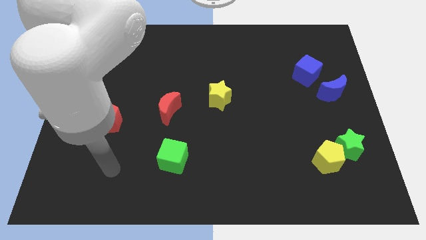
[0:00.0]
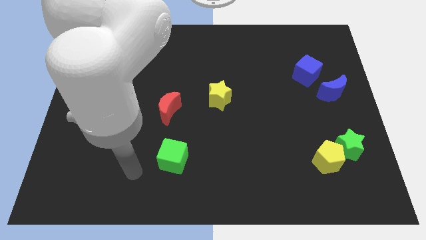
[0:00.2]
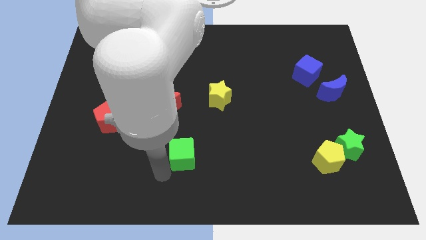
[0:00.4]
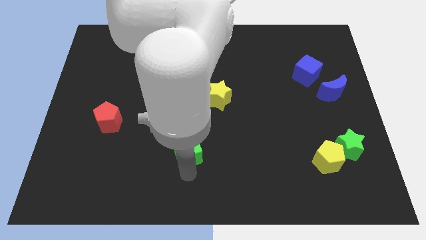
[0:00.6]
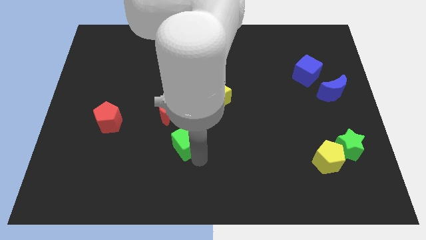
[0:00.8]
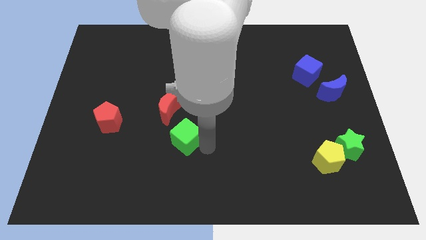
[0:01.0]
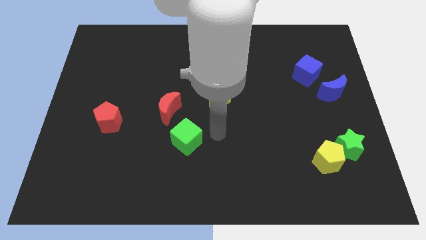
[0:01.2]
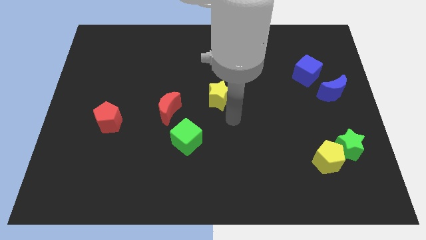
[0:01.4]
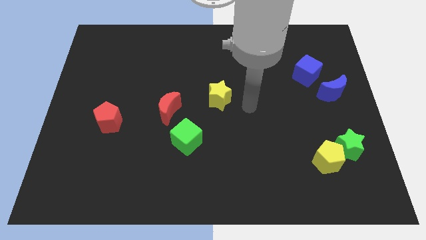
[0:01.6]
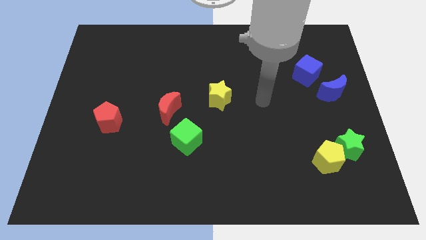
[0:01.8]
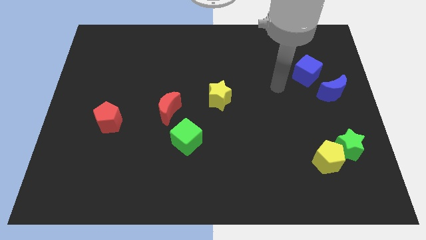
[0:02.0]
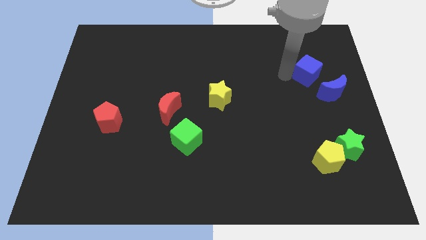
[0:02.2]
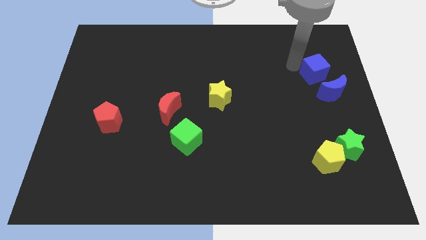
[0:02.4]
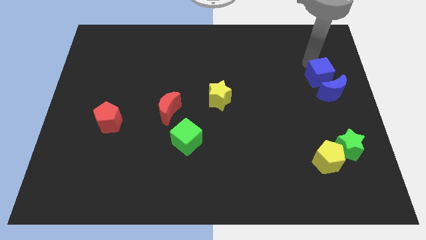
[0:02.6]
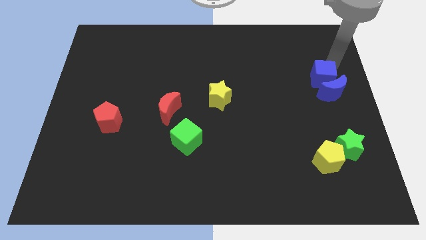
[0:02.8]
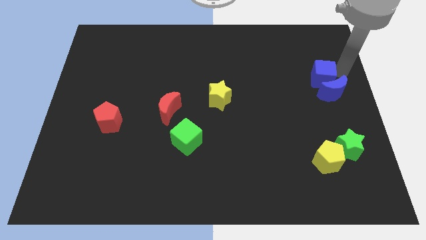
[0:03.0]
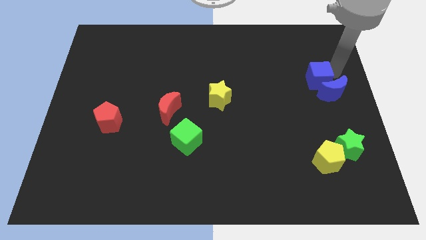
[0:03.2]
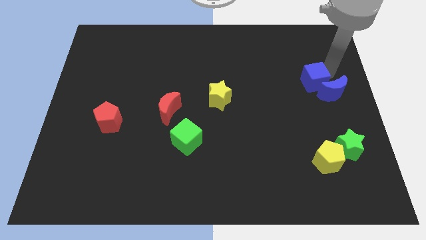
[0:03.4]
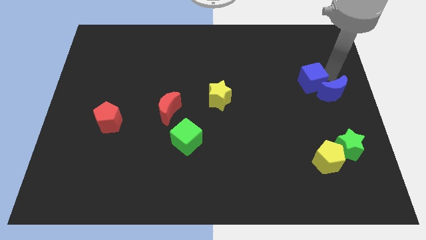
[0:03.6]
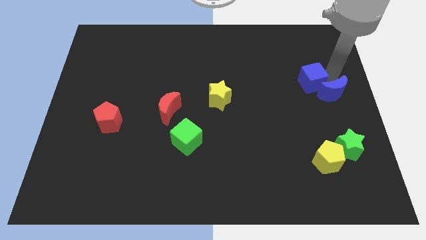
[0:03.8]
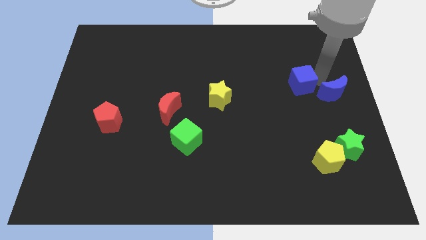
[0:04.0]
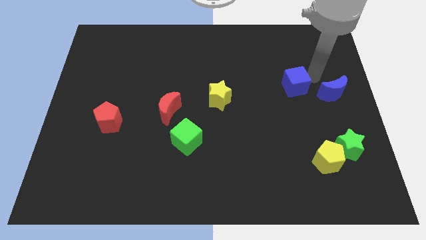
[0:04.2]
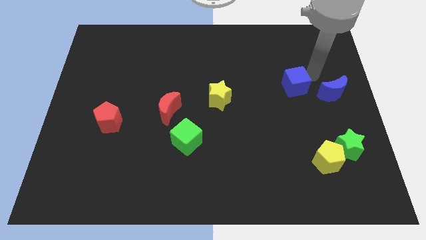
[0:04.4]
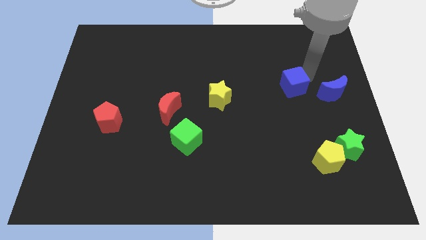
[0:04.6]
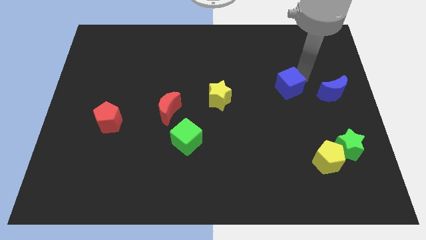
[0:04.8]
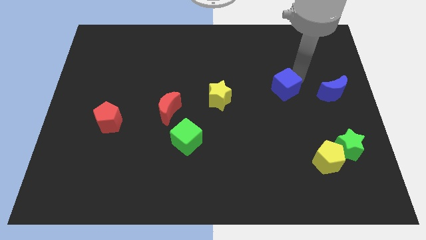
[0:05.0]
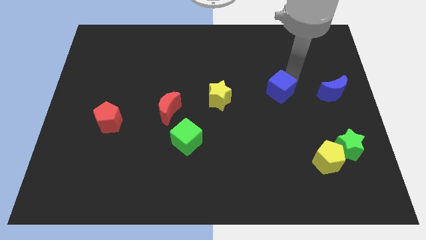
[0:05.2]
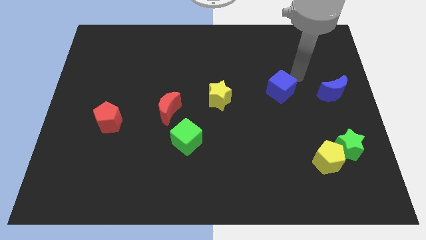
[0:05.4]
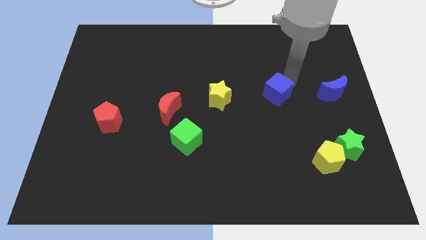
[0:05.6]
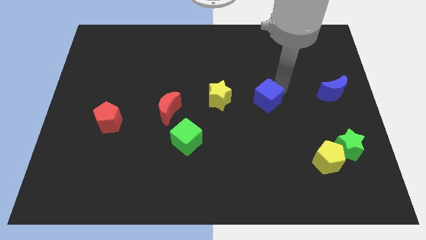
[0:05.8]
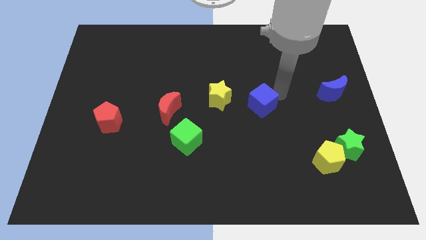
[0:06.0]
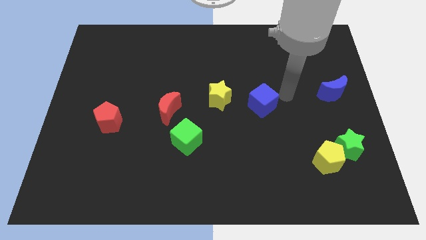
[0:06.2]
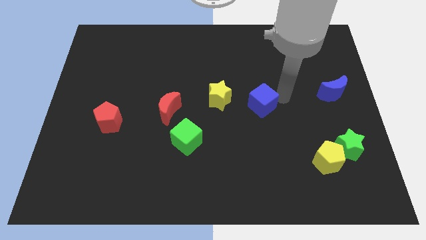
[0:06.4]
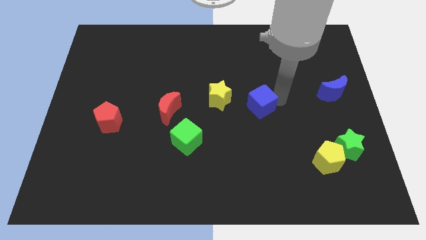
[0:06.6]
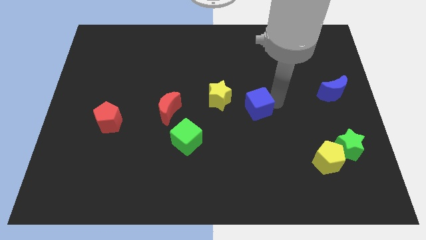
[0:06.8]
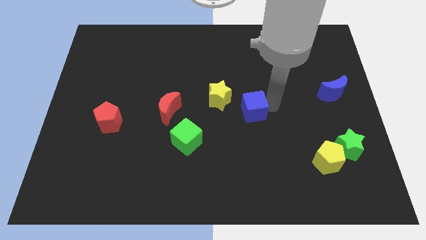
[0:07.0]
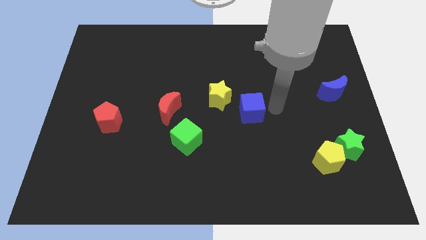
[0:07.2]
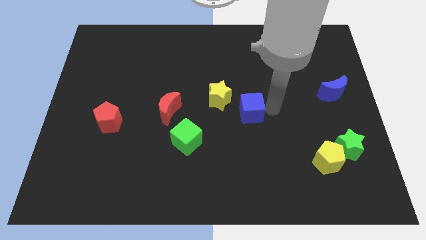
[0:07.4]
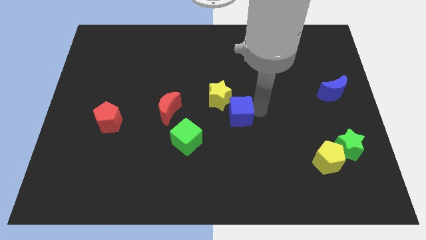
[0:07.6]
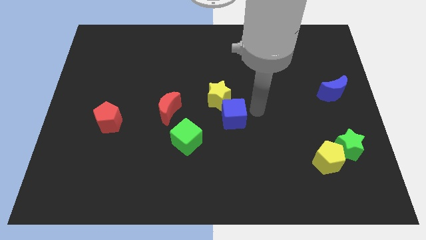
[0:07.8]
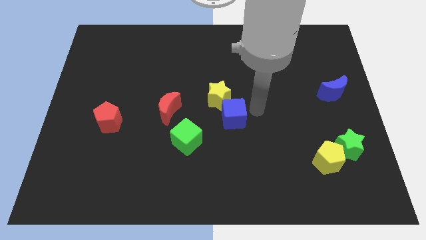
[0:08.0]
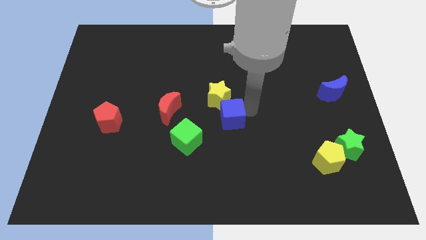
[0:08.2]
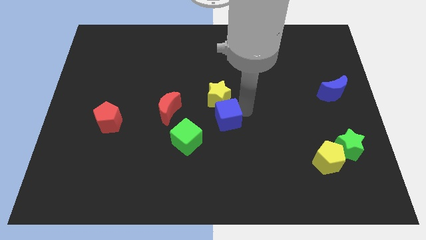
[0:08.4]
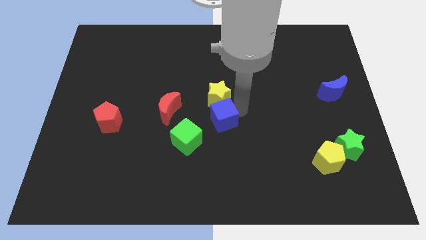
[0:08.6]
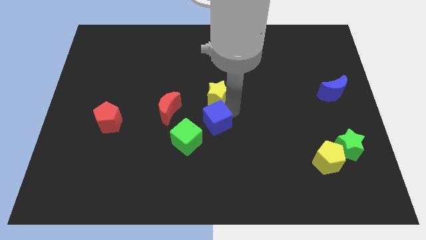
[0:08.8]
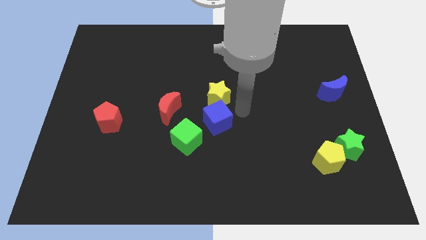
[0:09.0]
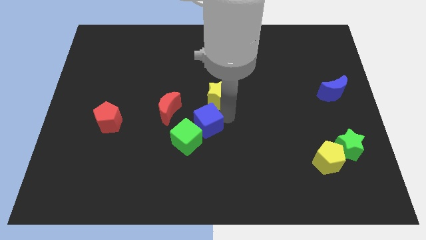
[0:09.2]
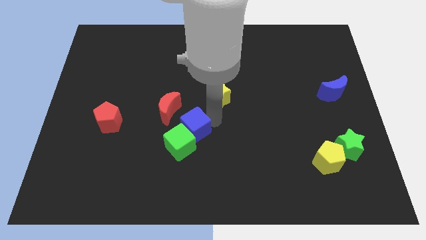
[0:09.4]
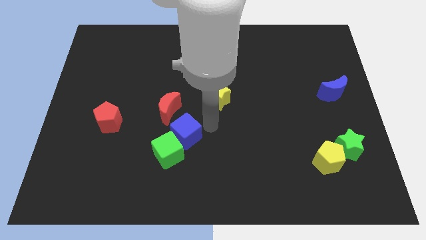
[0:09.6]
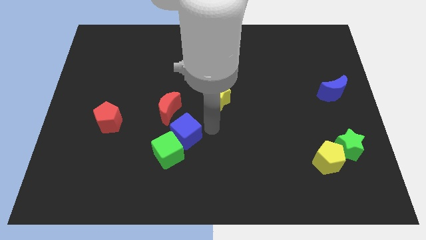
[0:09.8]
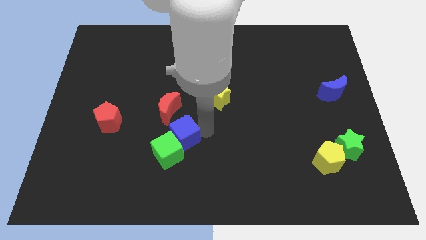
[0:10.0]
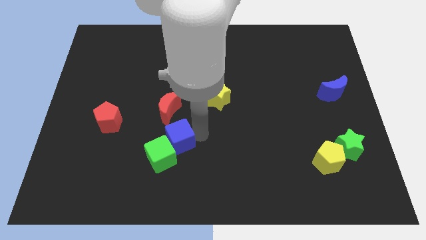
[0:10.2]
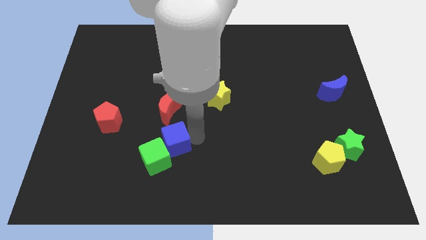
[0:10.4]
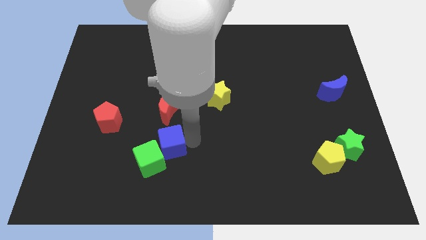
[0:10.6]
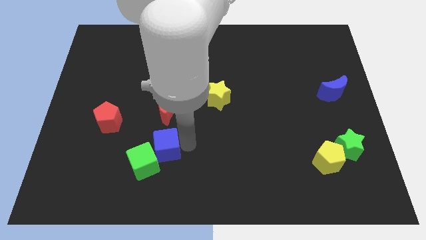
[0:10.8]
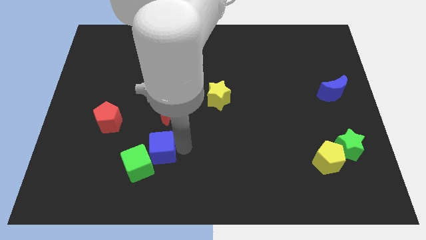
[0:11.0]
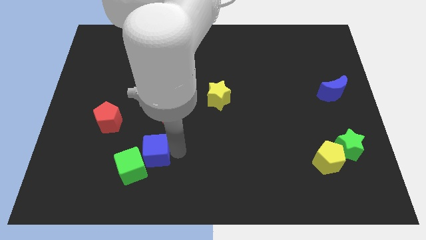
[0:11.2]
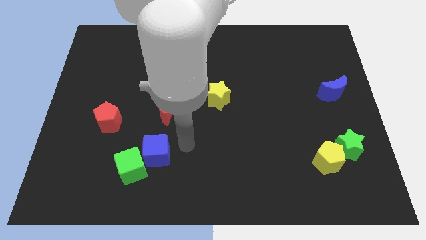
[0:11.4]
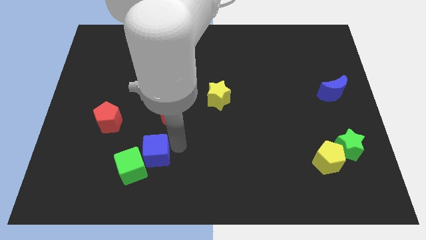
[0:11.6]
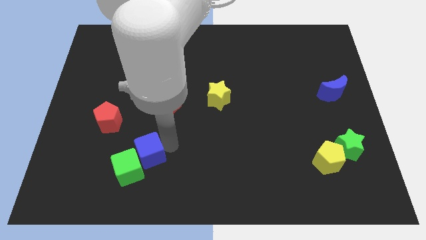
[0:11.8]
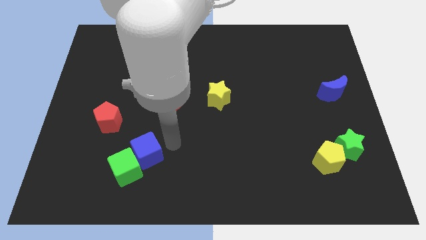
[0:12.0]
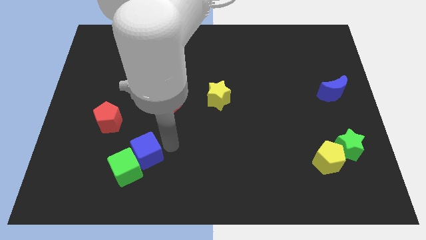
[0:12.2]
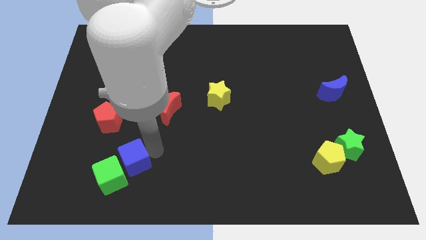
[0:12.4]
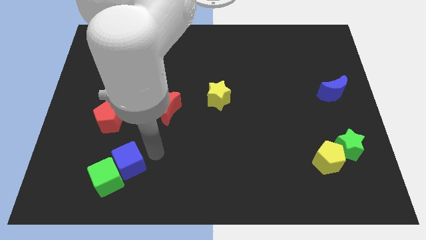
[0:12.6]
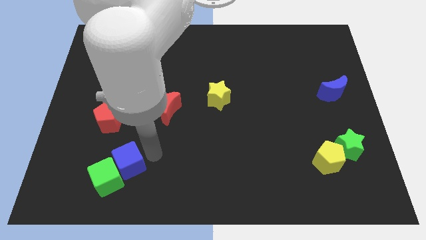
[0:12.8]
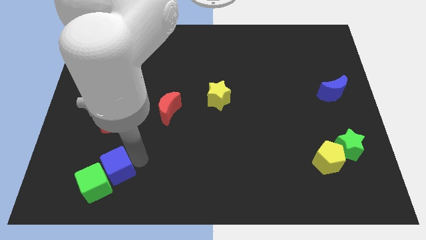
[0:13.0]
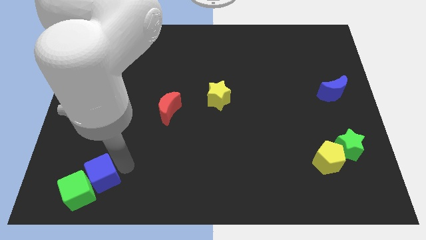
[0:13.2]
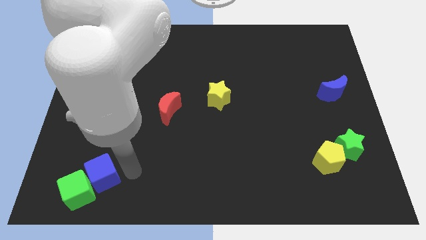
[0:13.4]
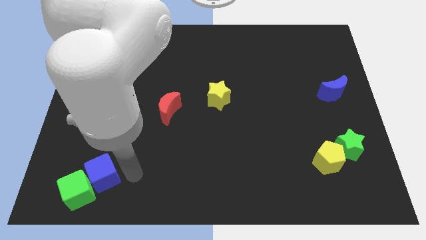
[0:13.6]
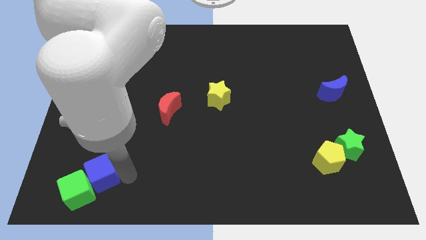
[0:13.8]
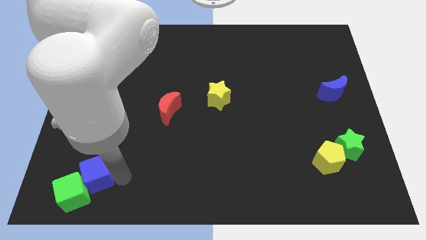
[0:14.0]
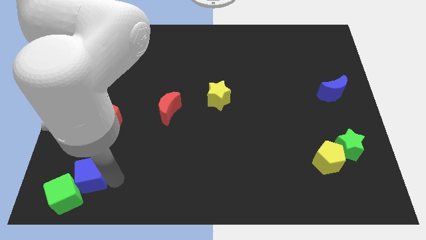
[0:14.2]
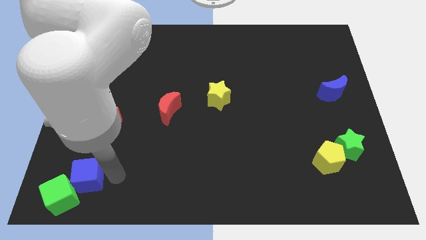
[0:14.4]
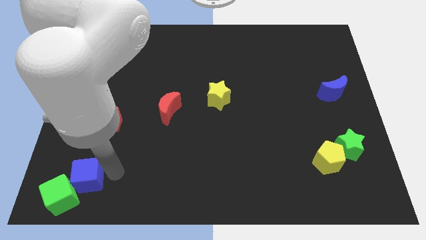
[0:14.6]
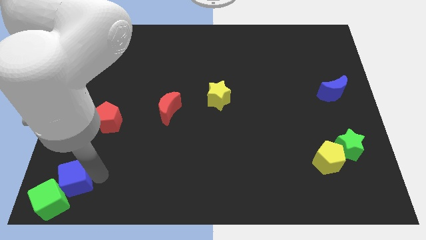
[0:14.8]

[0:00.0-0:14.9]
put the blue cube to the bottom left corner
